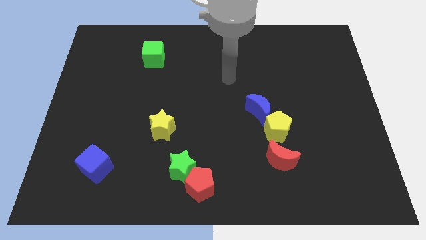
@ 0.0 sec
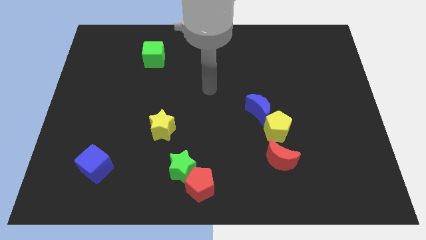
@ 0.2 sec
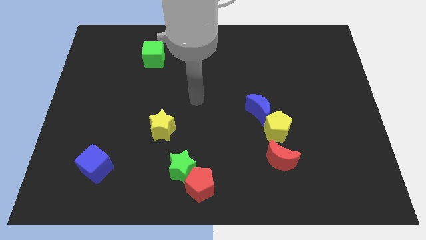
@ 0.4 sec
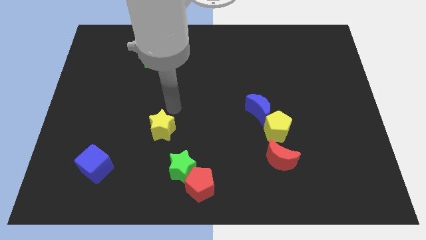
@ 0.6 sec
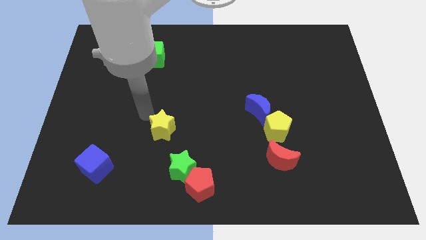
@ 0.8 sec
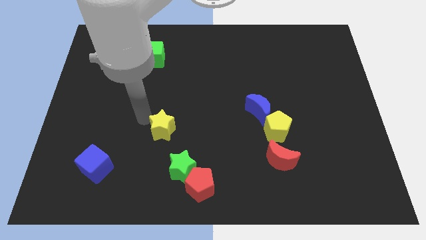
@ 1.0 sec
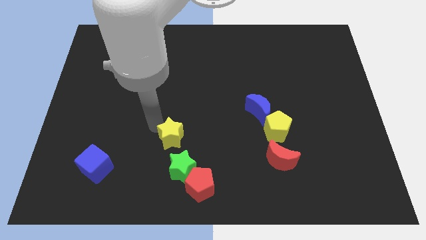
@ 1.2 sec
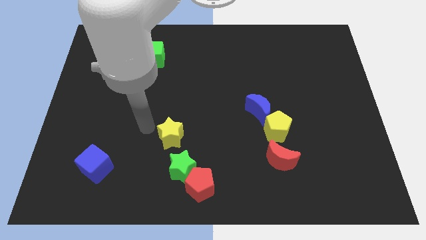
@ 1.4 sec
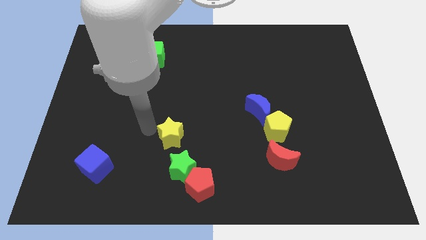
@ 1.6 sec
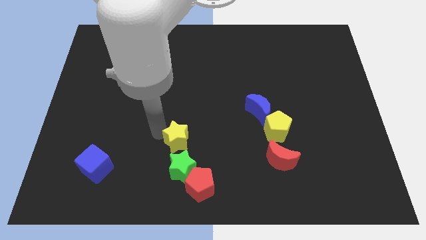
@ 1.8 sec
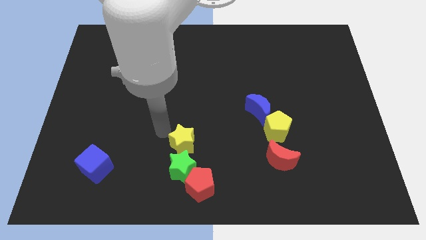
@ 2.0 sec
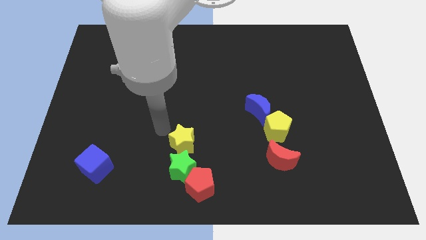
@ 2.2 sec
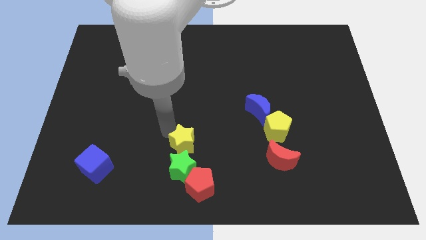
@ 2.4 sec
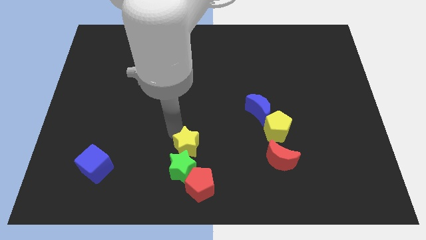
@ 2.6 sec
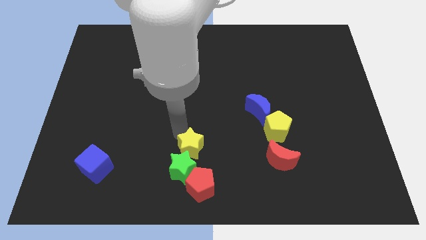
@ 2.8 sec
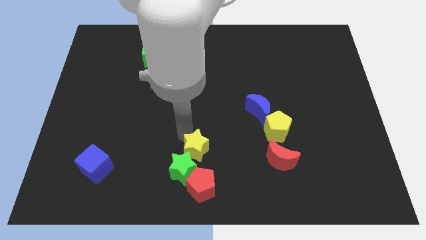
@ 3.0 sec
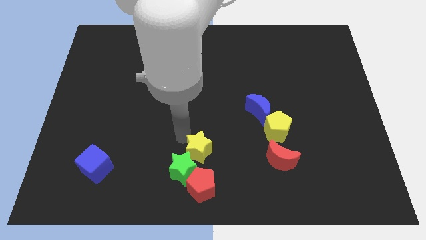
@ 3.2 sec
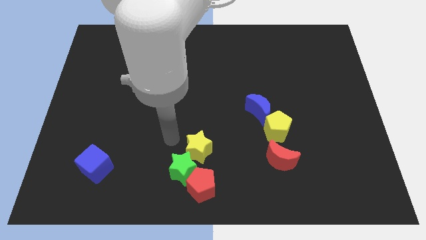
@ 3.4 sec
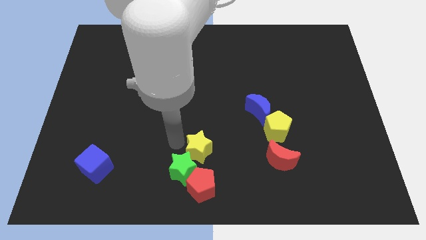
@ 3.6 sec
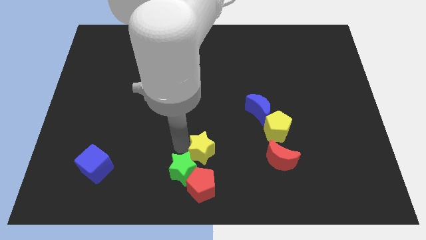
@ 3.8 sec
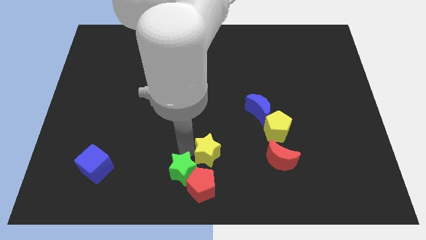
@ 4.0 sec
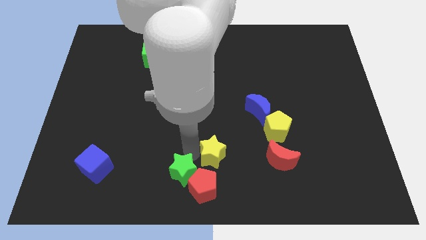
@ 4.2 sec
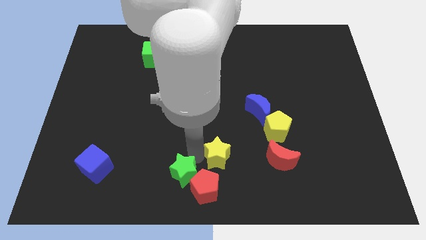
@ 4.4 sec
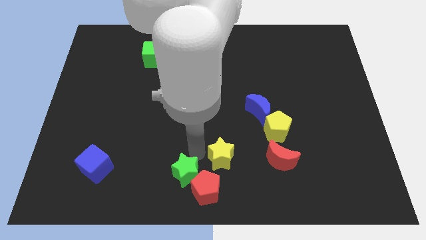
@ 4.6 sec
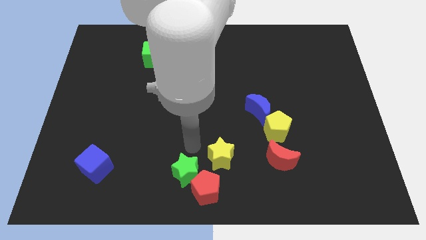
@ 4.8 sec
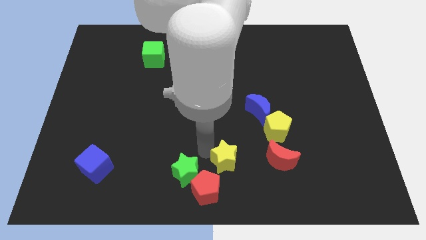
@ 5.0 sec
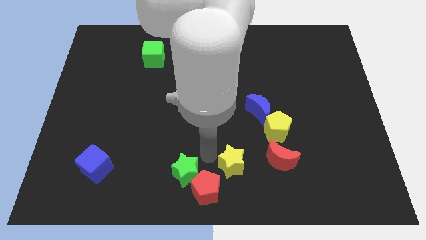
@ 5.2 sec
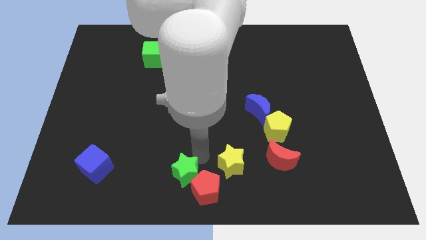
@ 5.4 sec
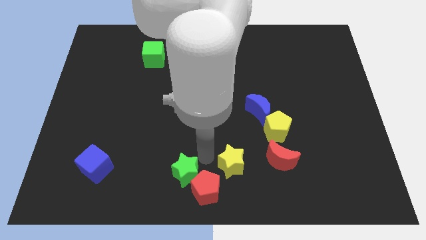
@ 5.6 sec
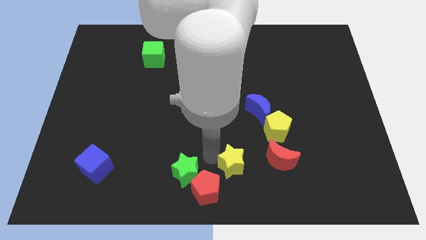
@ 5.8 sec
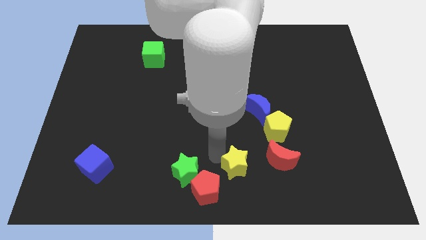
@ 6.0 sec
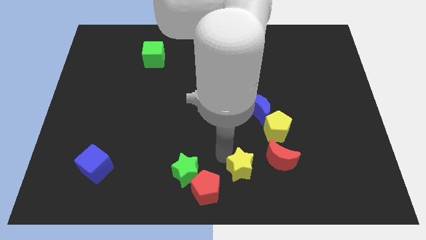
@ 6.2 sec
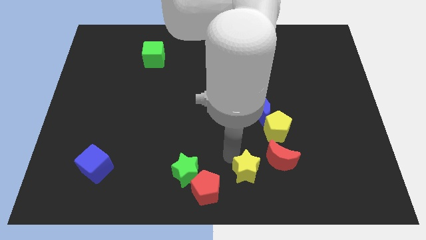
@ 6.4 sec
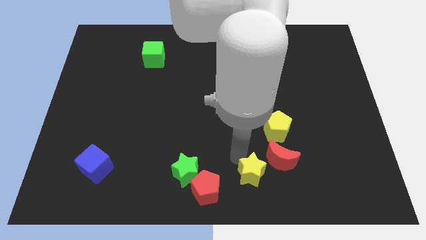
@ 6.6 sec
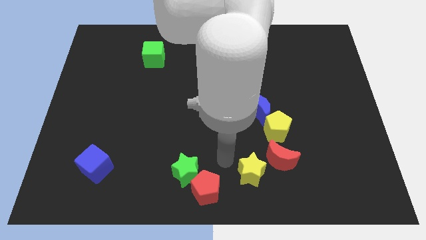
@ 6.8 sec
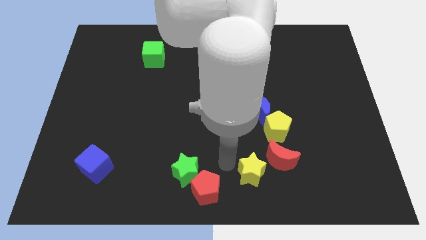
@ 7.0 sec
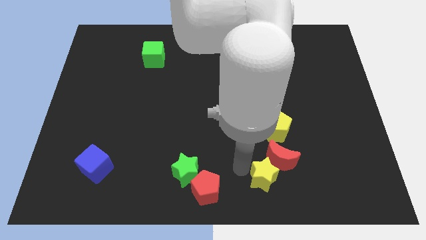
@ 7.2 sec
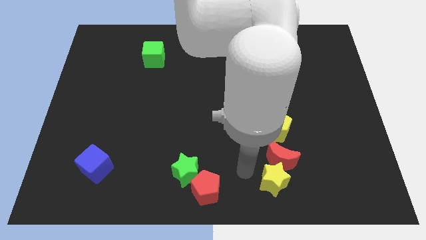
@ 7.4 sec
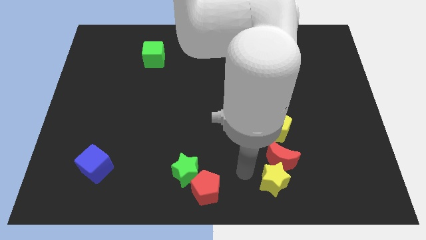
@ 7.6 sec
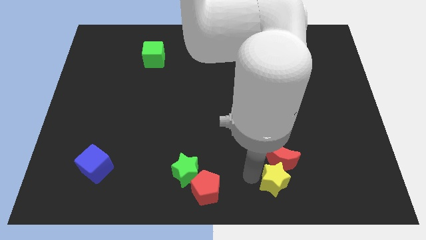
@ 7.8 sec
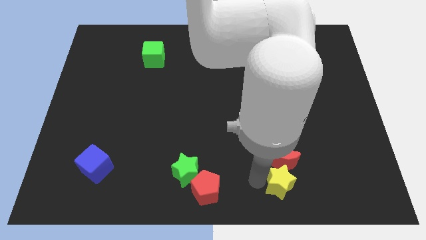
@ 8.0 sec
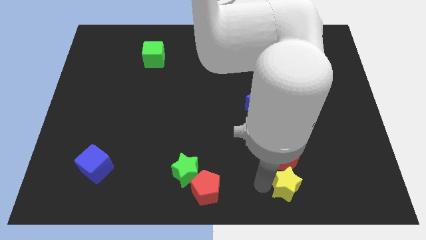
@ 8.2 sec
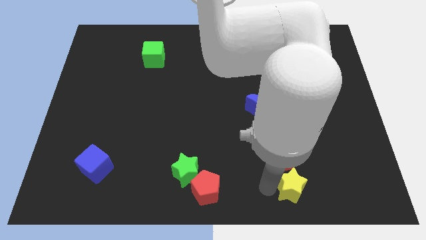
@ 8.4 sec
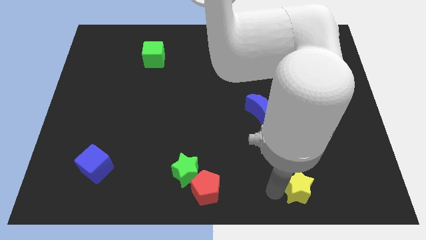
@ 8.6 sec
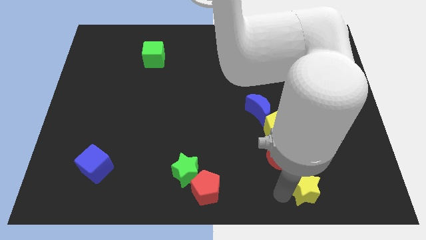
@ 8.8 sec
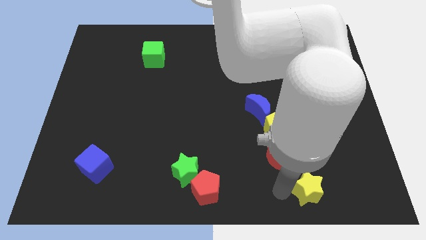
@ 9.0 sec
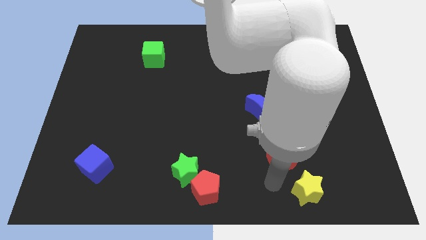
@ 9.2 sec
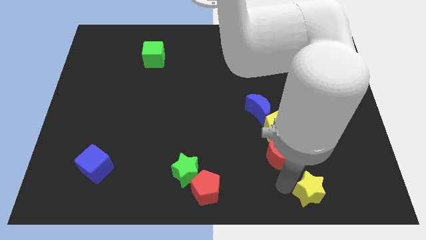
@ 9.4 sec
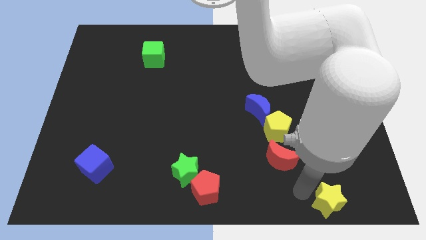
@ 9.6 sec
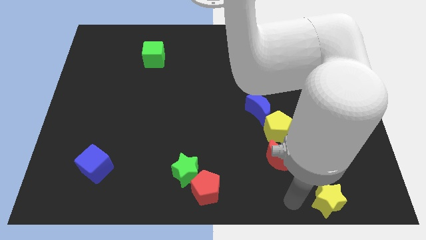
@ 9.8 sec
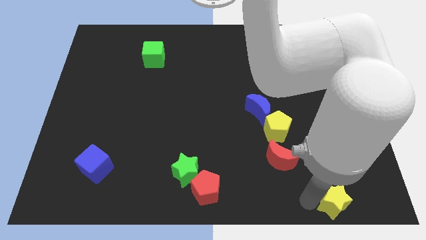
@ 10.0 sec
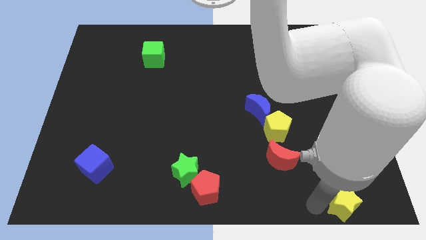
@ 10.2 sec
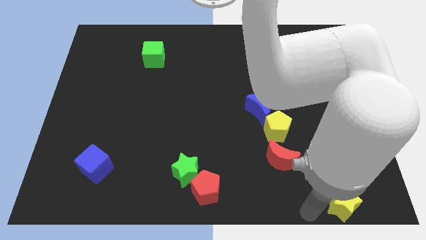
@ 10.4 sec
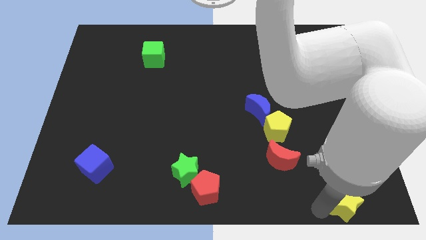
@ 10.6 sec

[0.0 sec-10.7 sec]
slide the yellow star to the bottom right corner

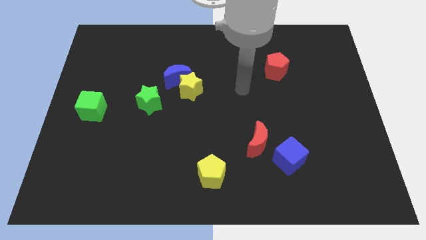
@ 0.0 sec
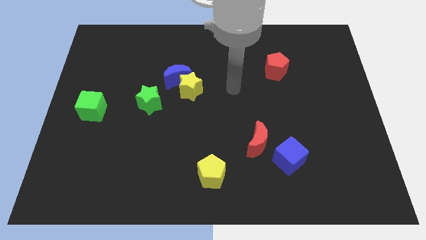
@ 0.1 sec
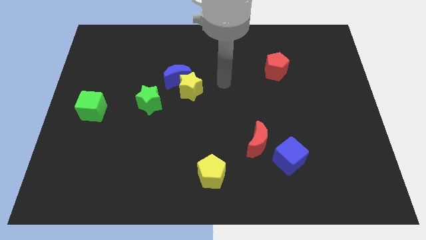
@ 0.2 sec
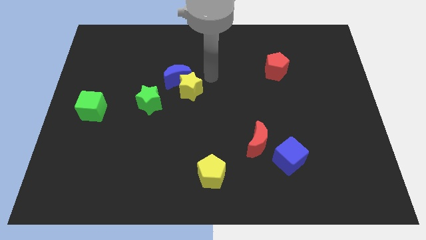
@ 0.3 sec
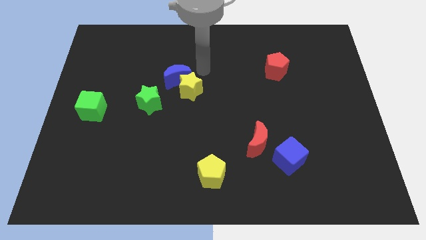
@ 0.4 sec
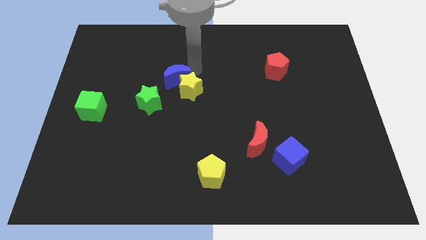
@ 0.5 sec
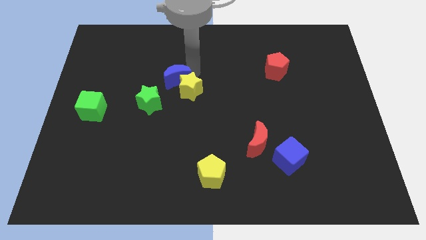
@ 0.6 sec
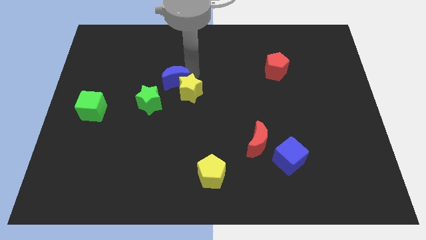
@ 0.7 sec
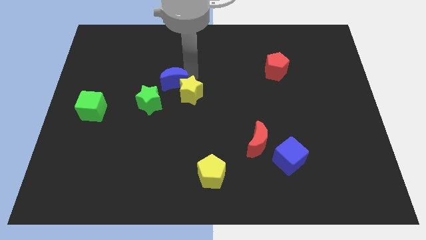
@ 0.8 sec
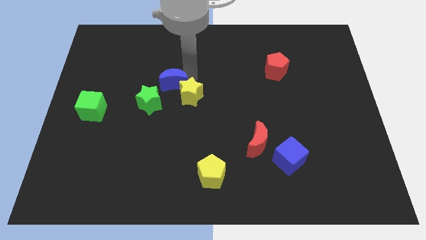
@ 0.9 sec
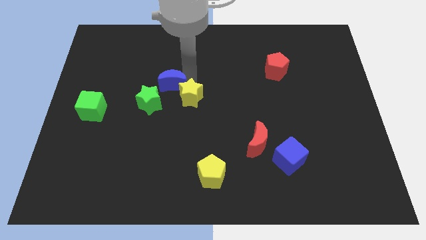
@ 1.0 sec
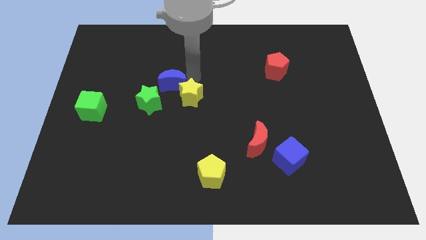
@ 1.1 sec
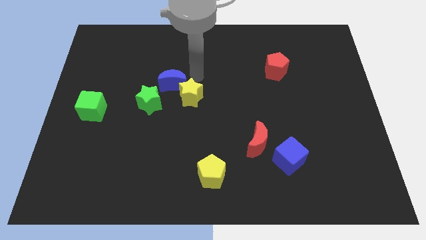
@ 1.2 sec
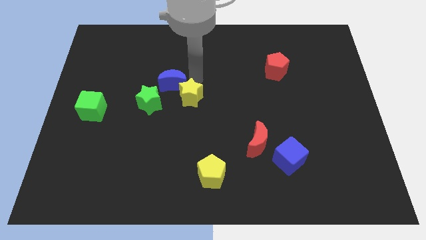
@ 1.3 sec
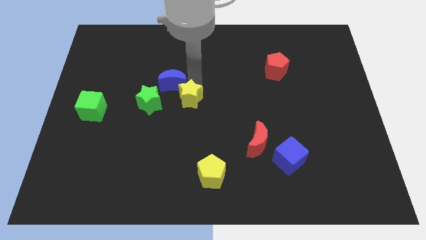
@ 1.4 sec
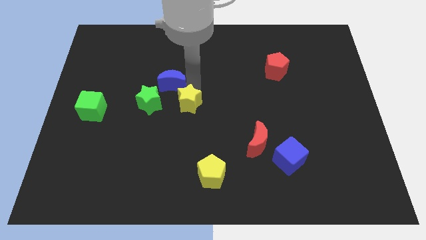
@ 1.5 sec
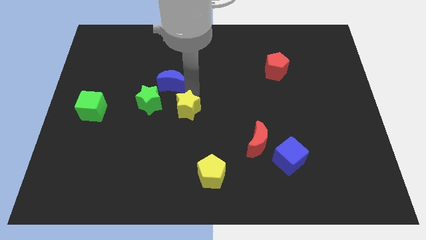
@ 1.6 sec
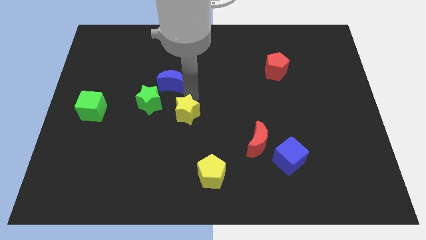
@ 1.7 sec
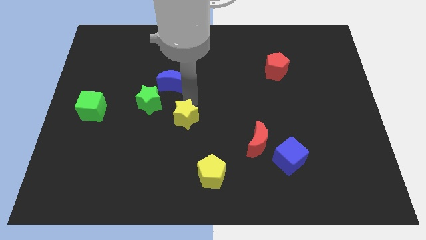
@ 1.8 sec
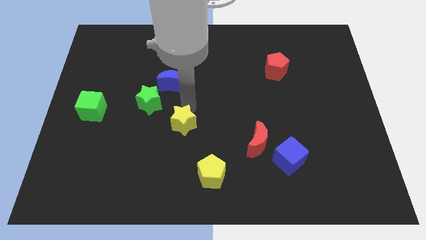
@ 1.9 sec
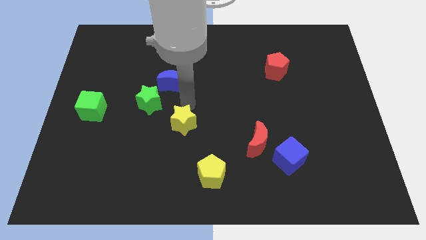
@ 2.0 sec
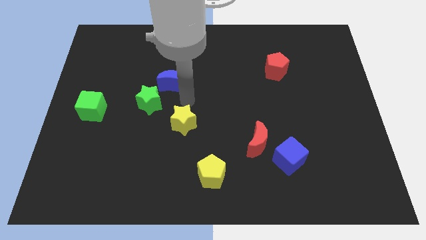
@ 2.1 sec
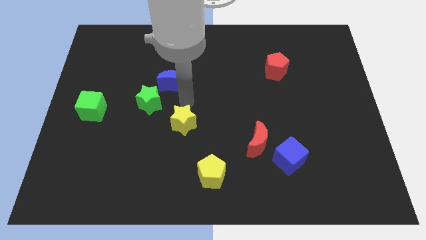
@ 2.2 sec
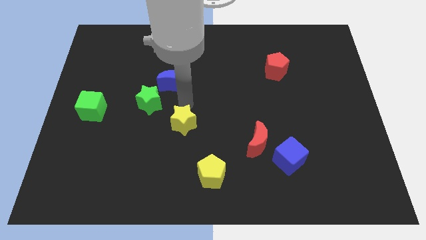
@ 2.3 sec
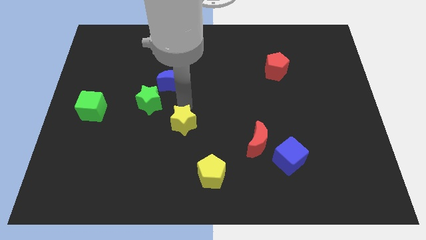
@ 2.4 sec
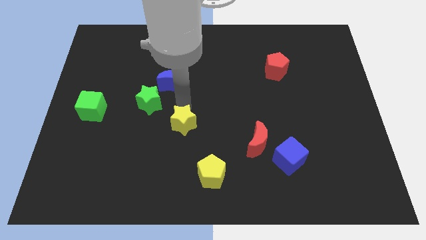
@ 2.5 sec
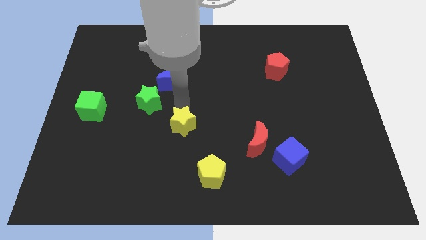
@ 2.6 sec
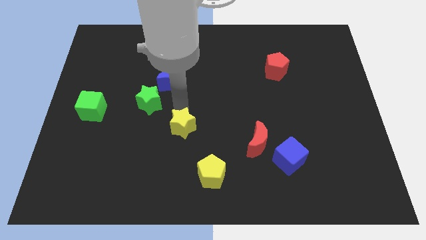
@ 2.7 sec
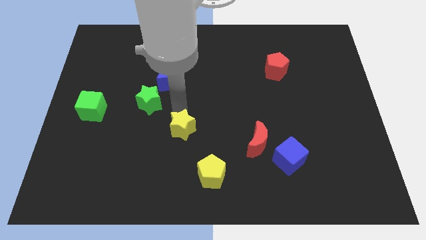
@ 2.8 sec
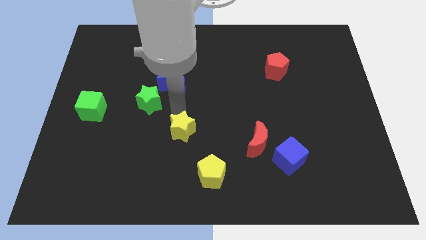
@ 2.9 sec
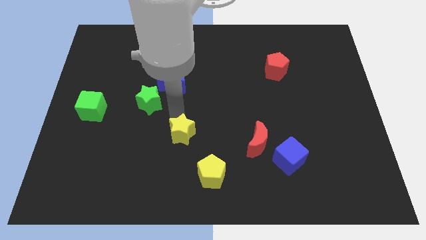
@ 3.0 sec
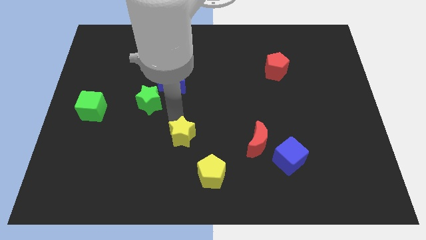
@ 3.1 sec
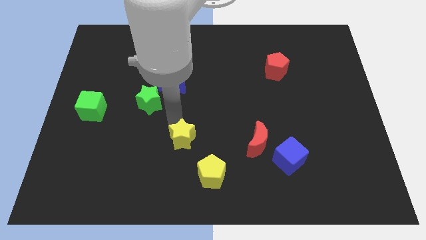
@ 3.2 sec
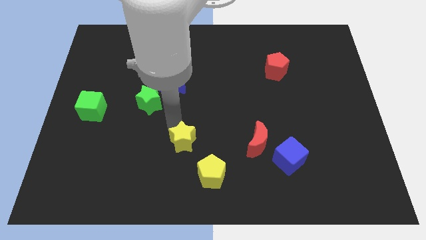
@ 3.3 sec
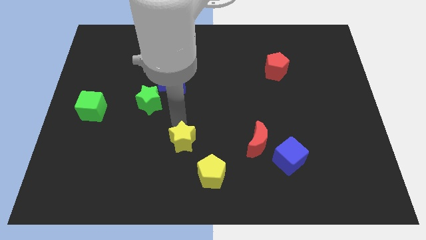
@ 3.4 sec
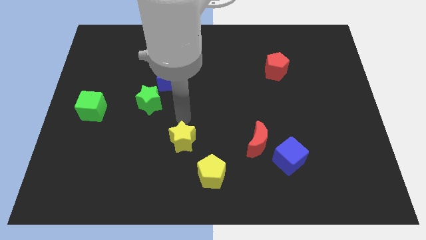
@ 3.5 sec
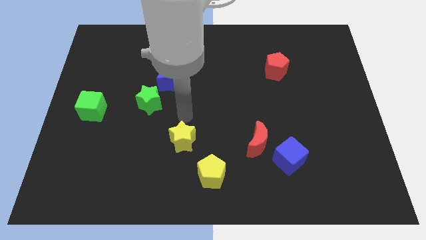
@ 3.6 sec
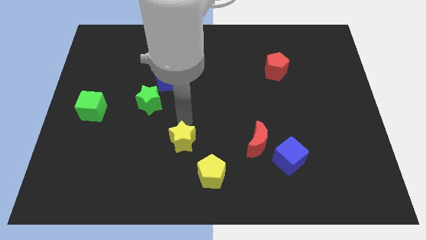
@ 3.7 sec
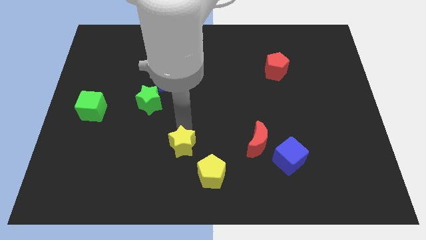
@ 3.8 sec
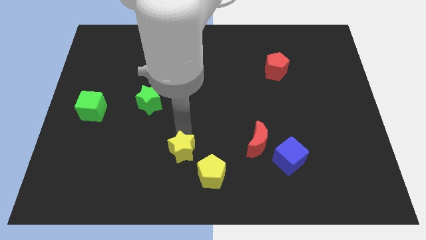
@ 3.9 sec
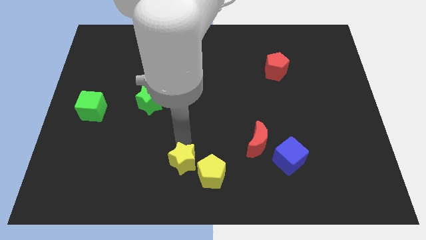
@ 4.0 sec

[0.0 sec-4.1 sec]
push the yellow star to the bottom
